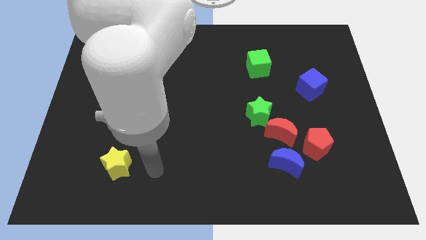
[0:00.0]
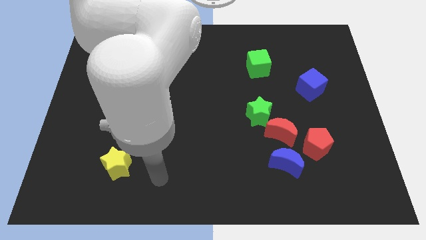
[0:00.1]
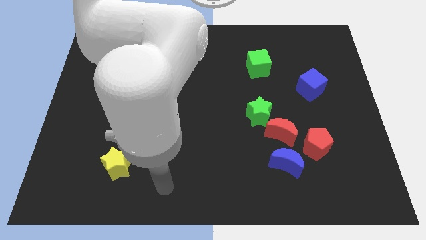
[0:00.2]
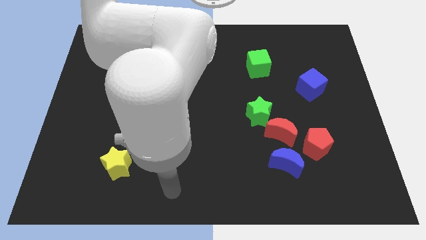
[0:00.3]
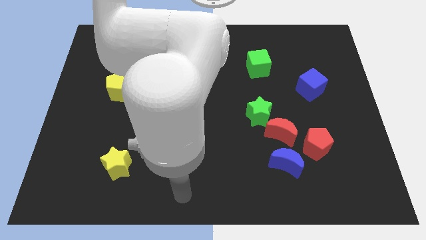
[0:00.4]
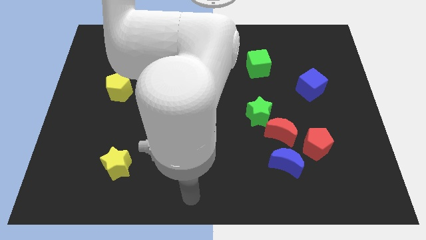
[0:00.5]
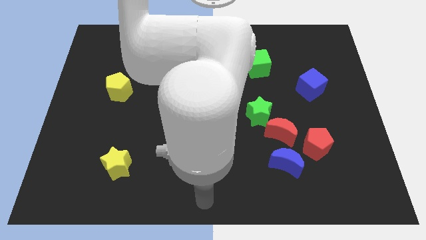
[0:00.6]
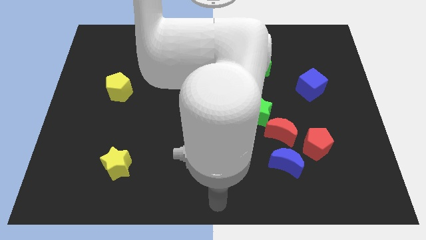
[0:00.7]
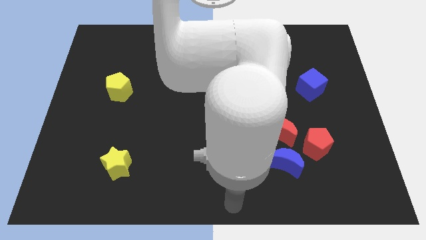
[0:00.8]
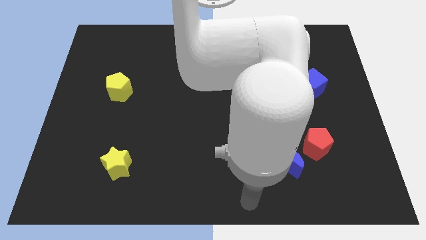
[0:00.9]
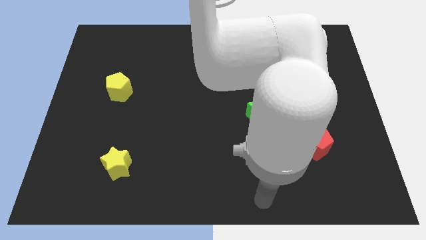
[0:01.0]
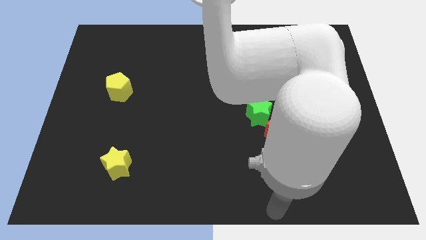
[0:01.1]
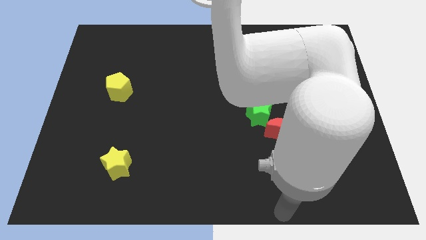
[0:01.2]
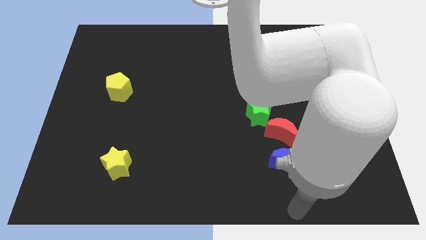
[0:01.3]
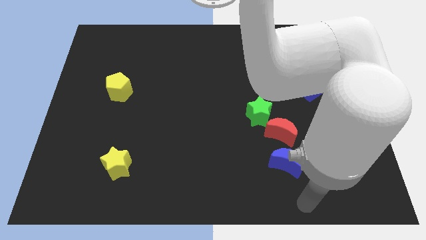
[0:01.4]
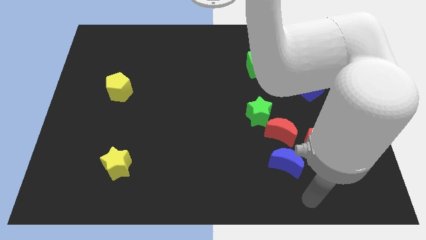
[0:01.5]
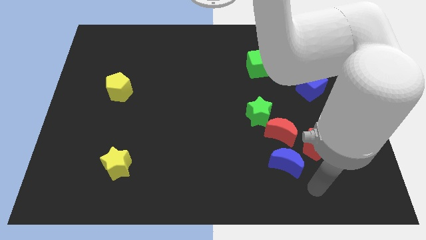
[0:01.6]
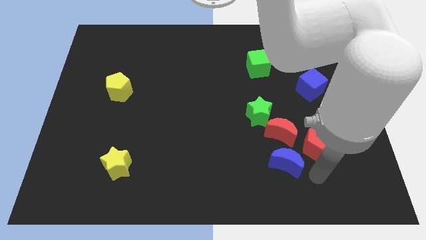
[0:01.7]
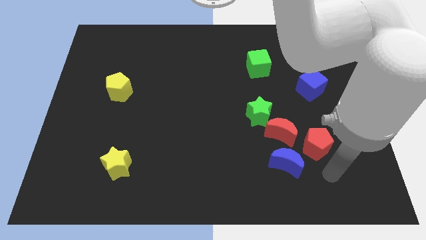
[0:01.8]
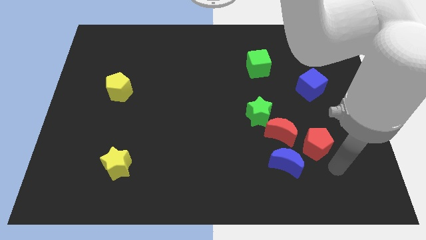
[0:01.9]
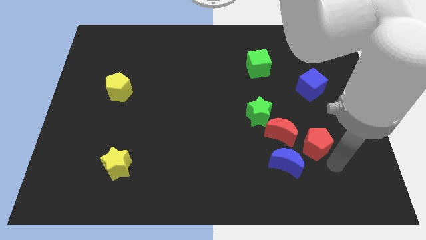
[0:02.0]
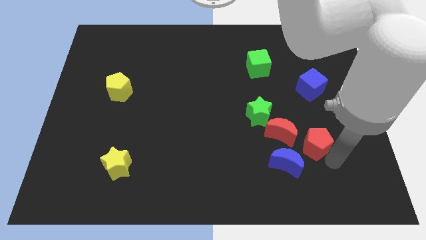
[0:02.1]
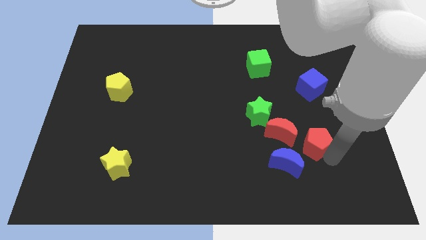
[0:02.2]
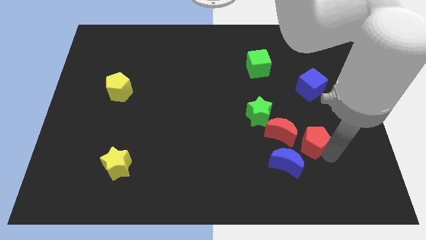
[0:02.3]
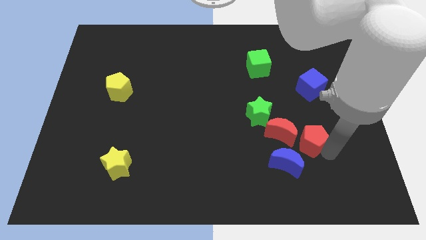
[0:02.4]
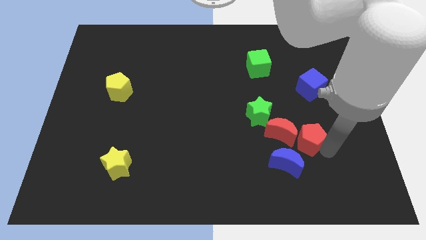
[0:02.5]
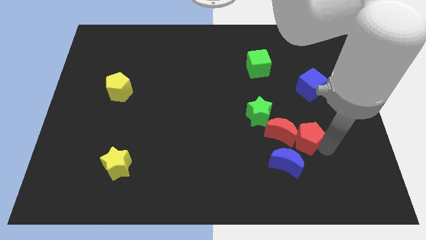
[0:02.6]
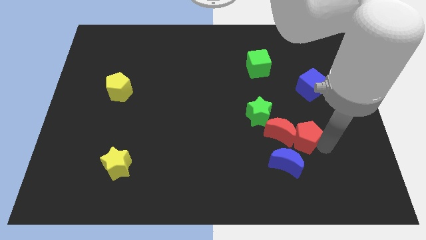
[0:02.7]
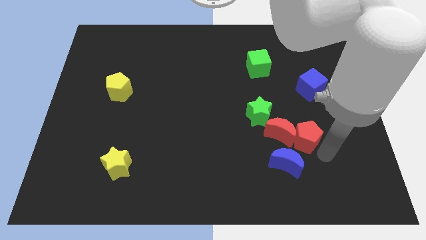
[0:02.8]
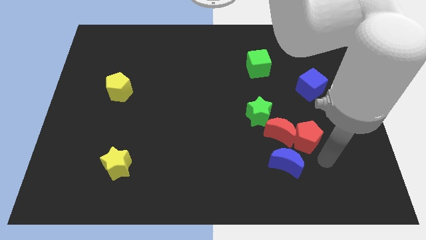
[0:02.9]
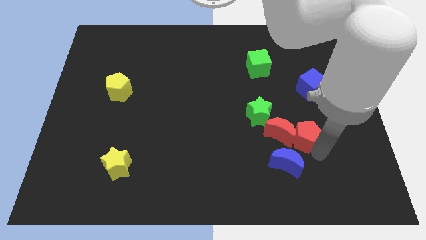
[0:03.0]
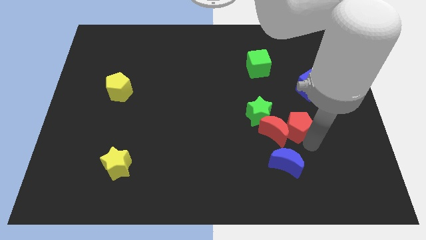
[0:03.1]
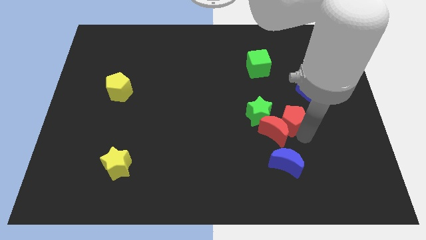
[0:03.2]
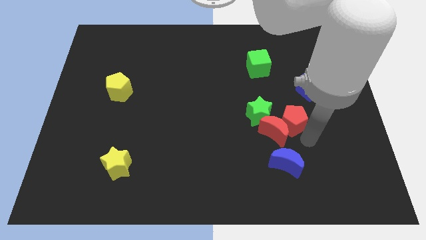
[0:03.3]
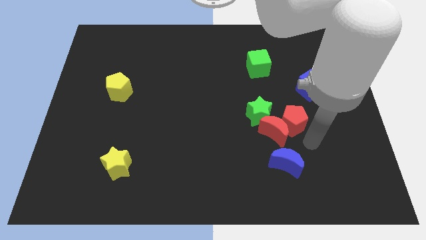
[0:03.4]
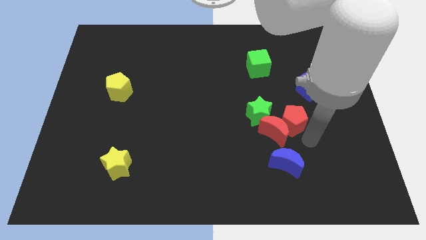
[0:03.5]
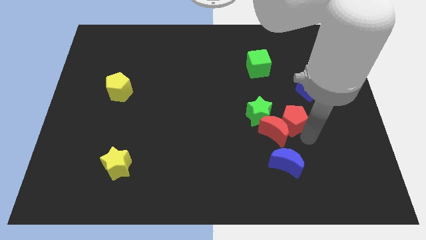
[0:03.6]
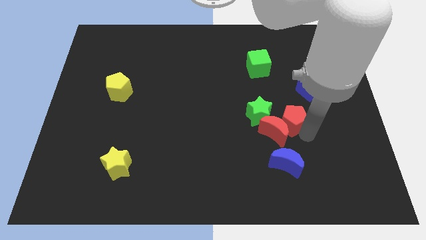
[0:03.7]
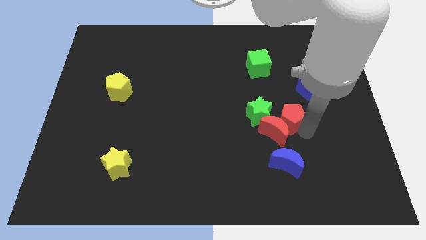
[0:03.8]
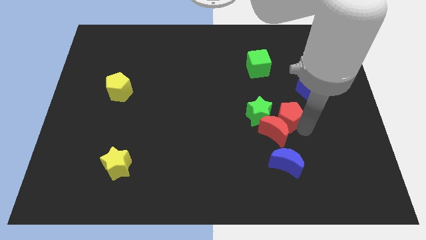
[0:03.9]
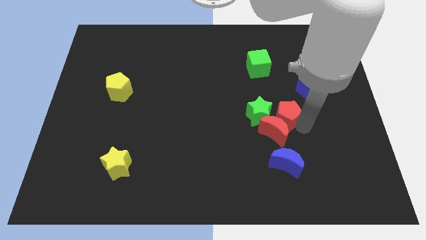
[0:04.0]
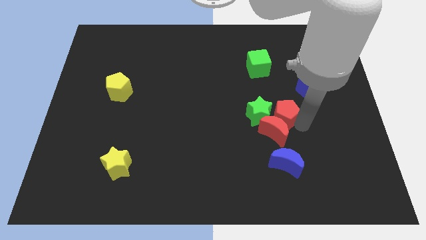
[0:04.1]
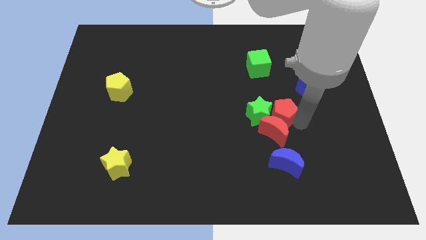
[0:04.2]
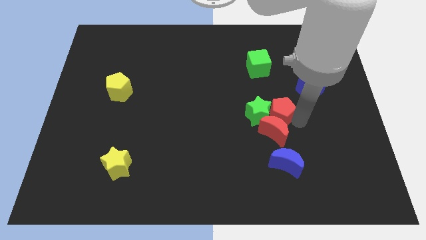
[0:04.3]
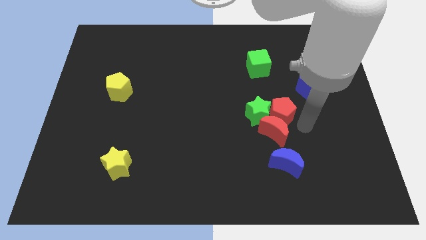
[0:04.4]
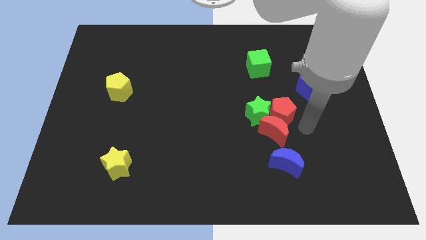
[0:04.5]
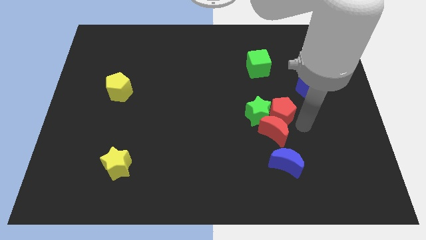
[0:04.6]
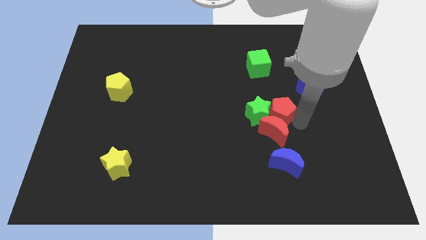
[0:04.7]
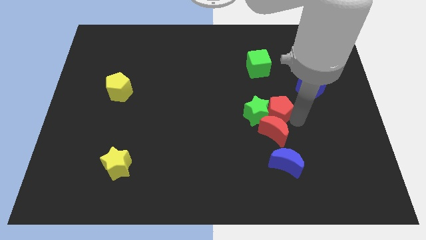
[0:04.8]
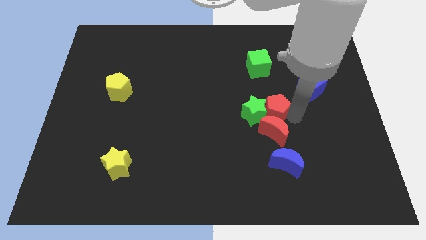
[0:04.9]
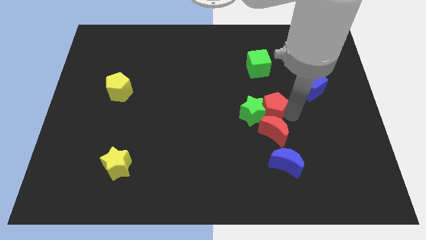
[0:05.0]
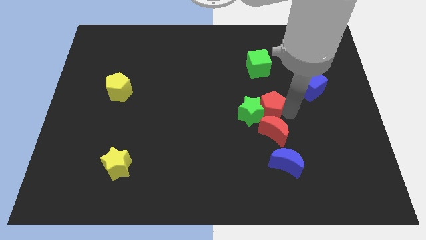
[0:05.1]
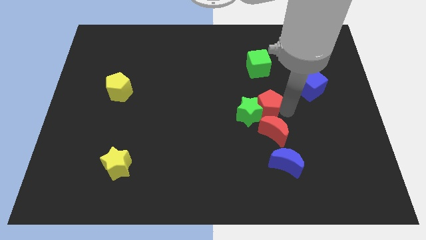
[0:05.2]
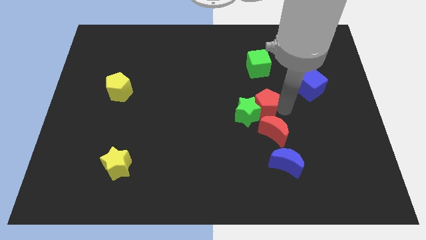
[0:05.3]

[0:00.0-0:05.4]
move the red pentagon to the center of the board

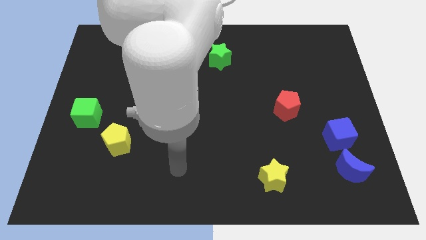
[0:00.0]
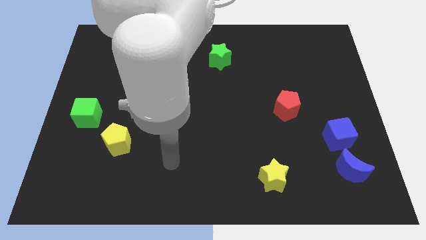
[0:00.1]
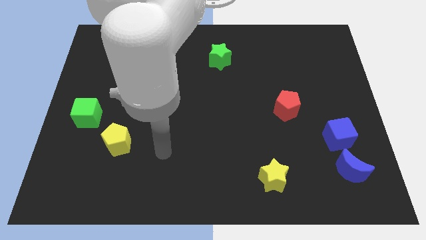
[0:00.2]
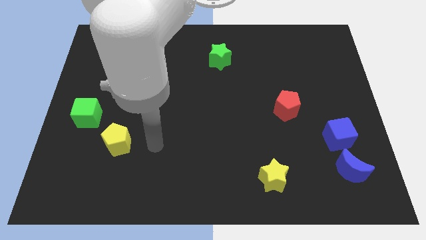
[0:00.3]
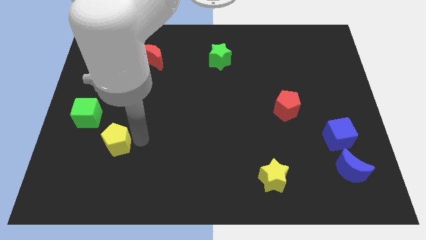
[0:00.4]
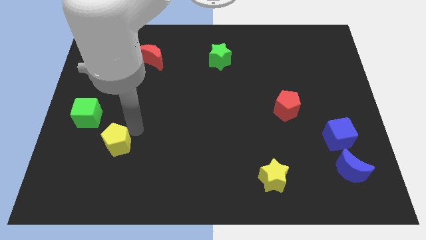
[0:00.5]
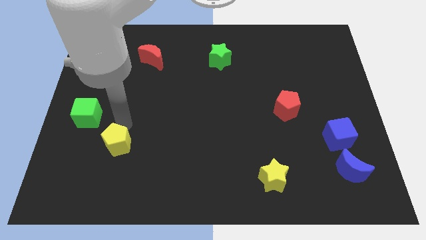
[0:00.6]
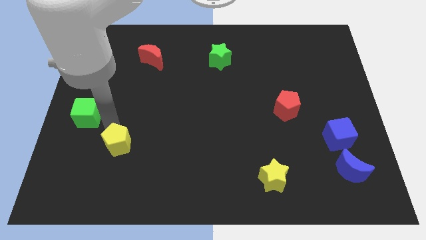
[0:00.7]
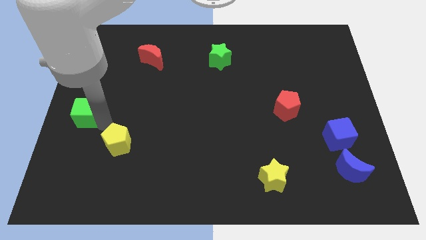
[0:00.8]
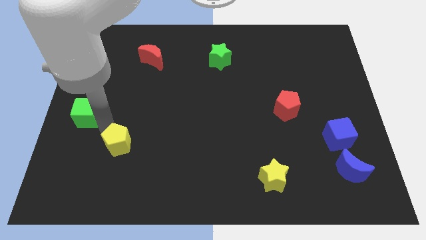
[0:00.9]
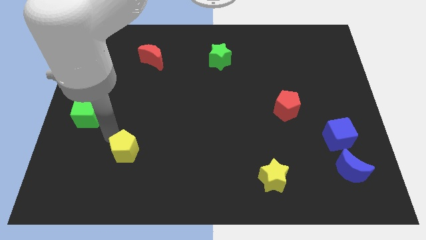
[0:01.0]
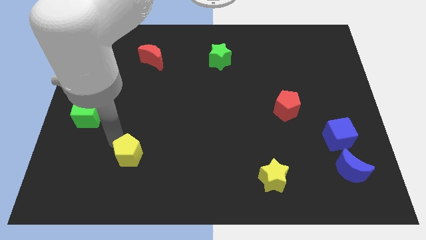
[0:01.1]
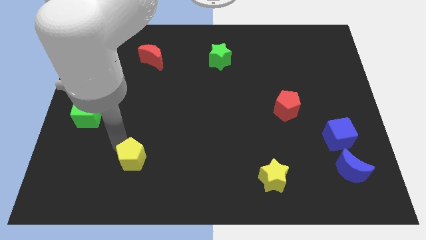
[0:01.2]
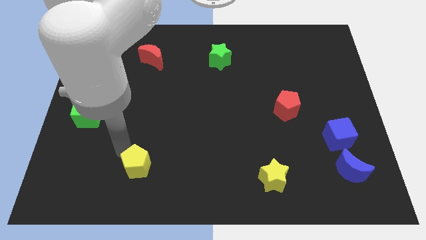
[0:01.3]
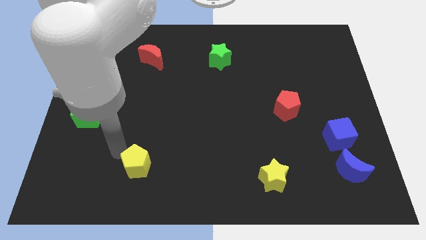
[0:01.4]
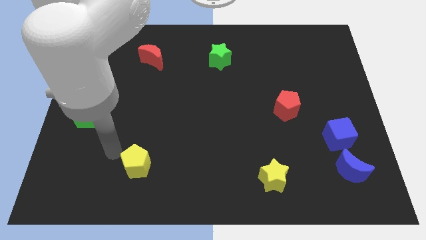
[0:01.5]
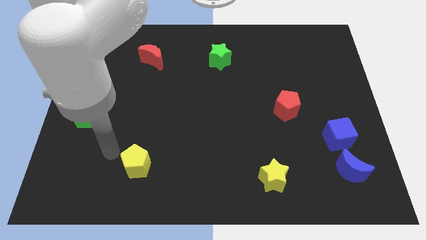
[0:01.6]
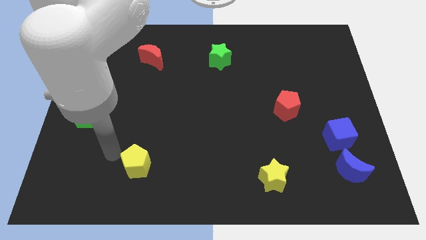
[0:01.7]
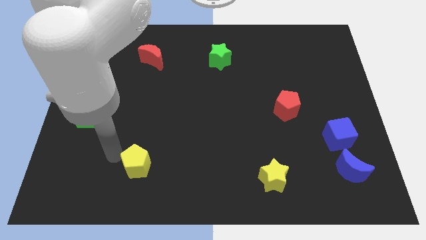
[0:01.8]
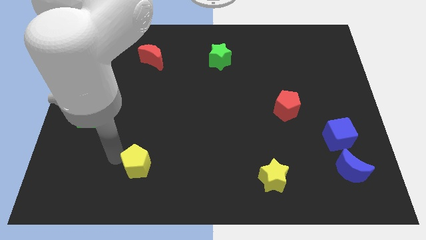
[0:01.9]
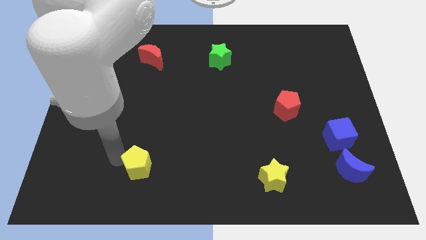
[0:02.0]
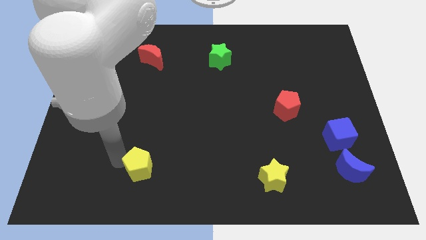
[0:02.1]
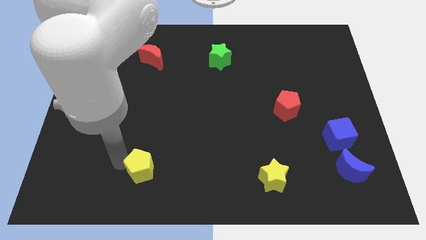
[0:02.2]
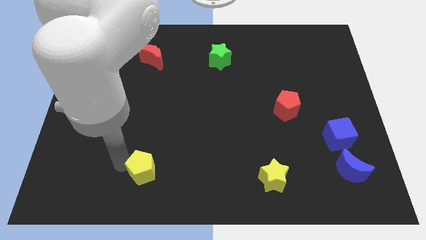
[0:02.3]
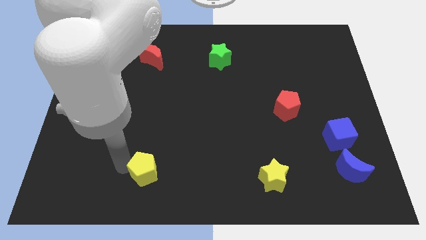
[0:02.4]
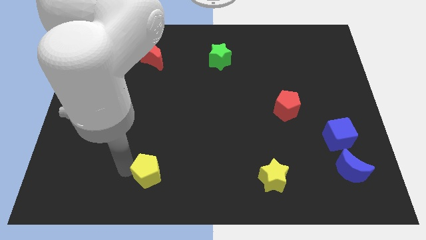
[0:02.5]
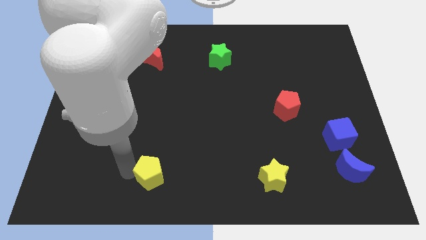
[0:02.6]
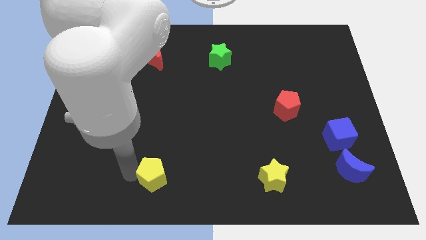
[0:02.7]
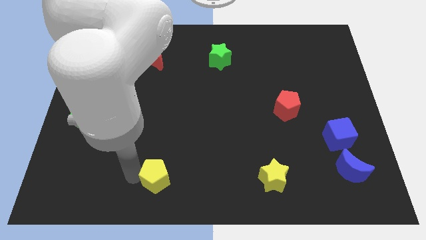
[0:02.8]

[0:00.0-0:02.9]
put the yellow pentagon to the bottom side
